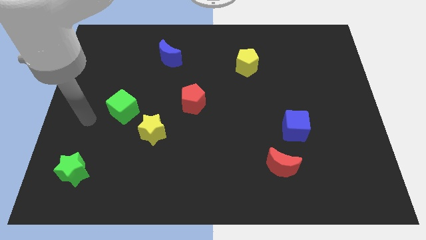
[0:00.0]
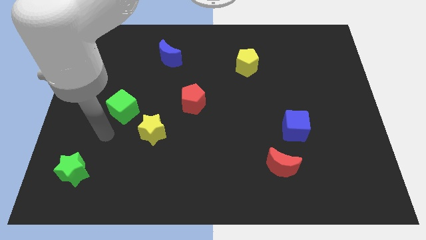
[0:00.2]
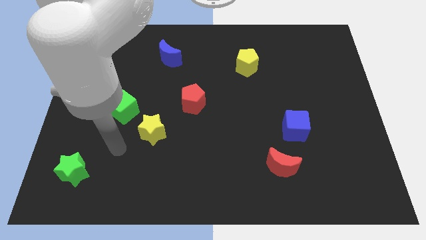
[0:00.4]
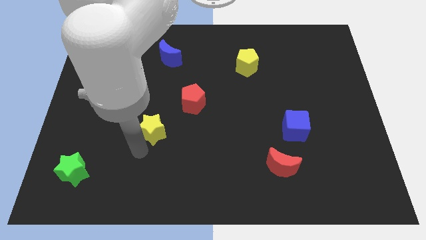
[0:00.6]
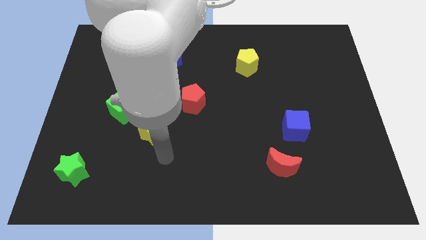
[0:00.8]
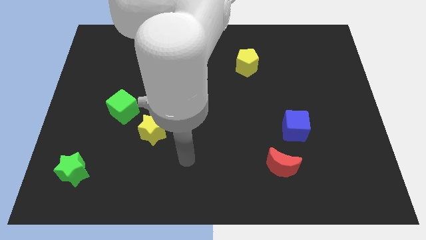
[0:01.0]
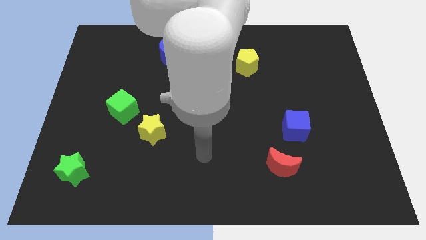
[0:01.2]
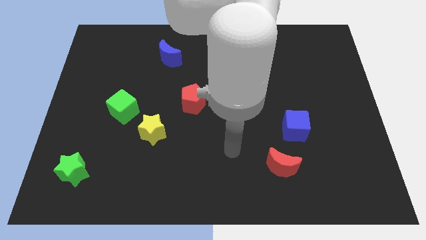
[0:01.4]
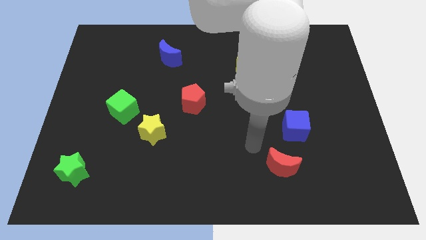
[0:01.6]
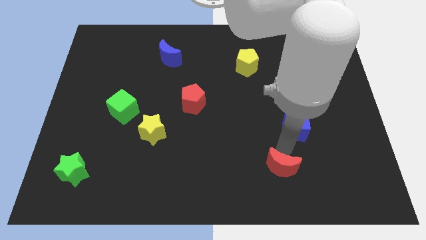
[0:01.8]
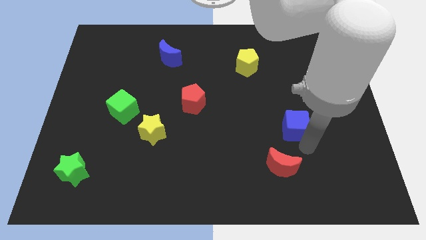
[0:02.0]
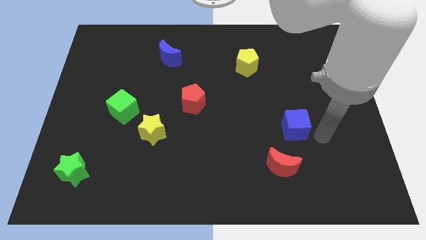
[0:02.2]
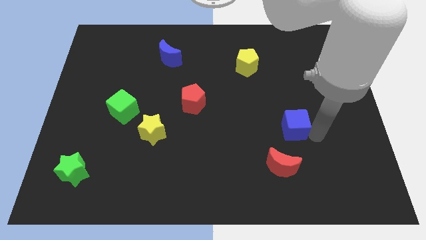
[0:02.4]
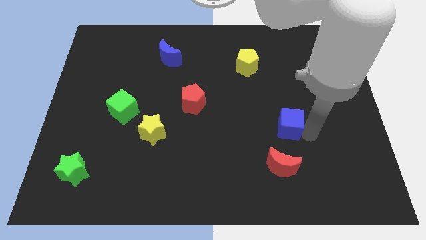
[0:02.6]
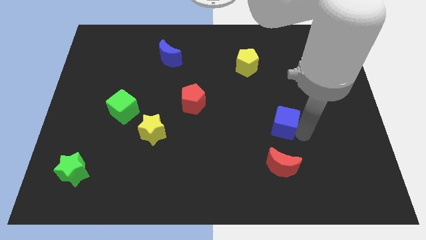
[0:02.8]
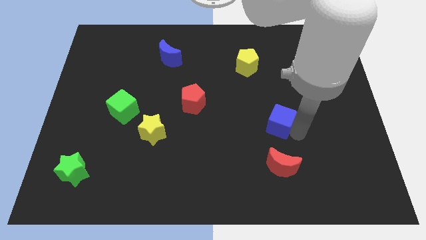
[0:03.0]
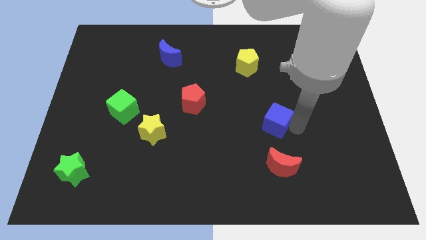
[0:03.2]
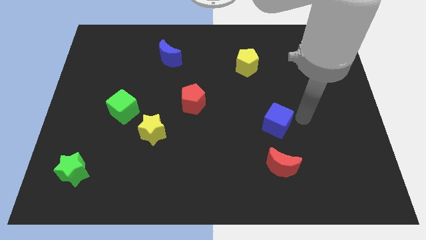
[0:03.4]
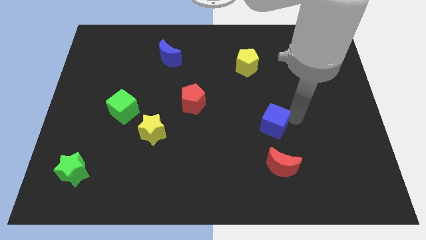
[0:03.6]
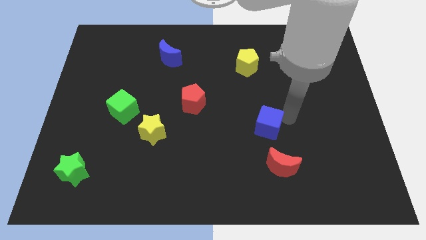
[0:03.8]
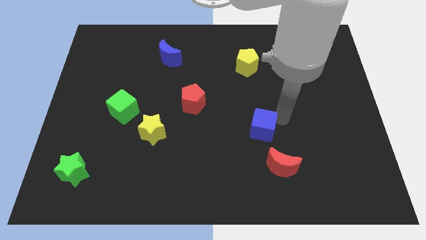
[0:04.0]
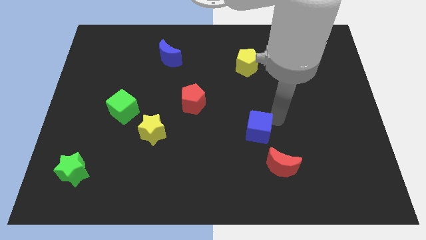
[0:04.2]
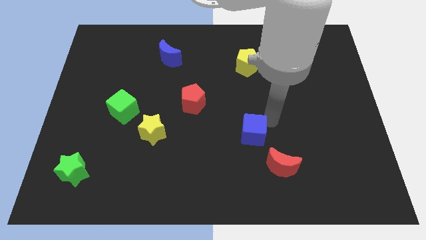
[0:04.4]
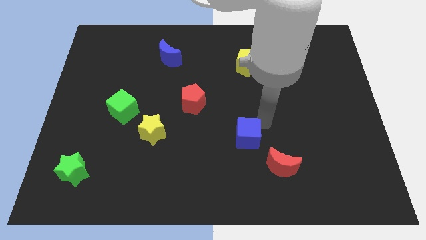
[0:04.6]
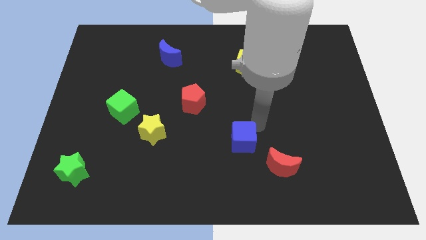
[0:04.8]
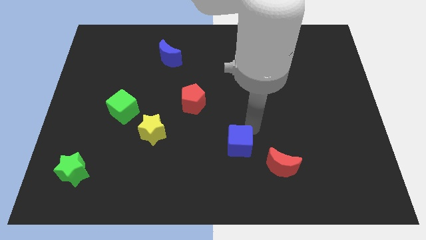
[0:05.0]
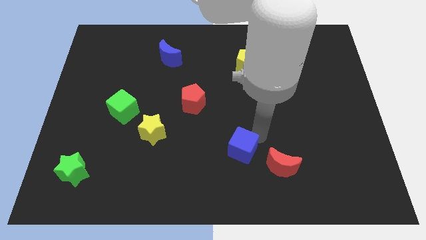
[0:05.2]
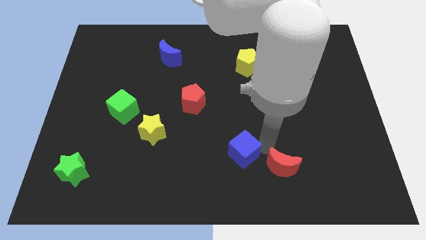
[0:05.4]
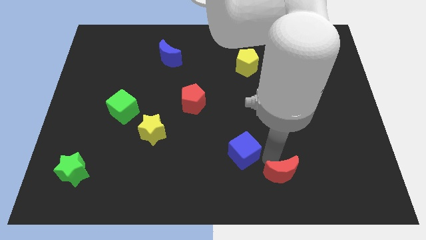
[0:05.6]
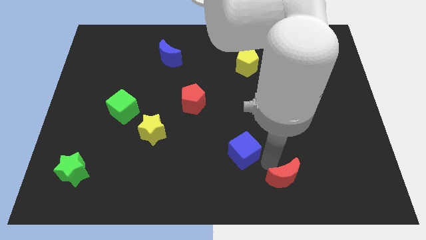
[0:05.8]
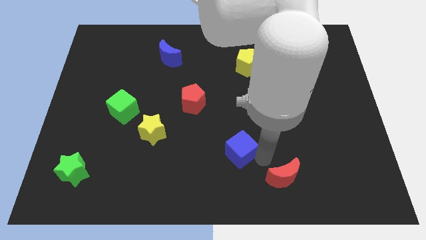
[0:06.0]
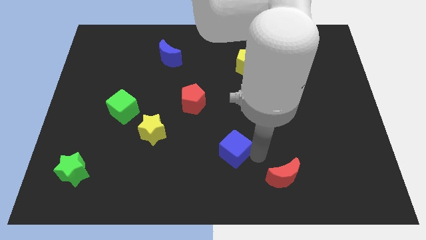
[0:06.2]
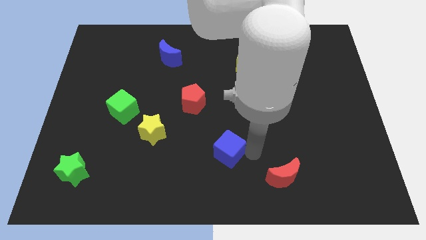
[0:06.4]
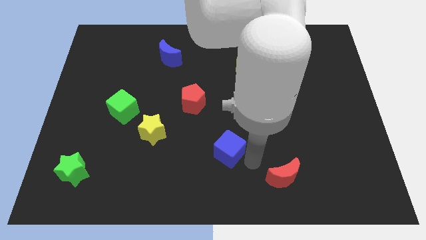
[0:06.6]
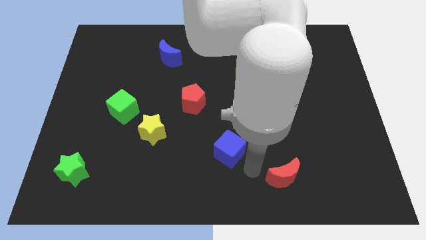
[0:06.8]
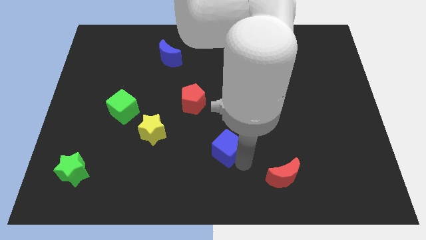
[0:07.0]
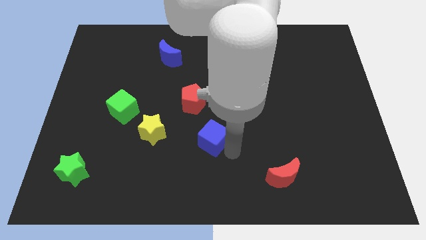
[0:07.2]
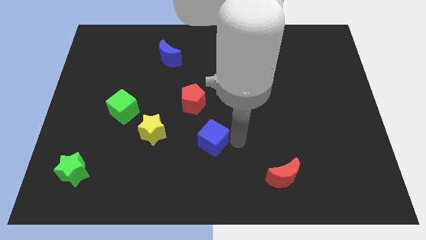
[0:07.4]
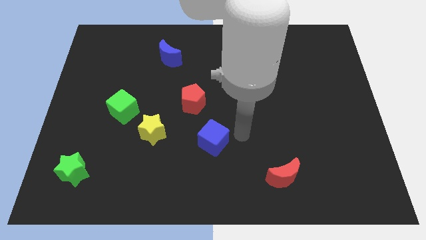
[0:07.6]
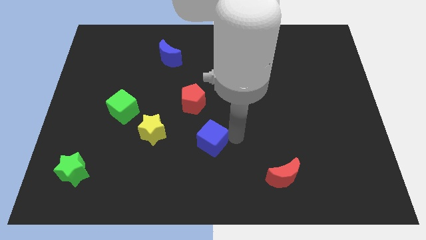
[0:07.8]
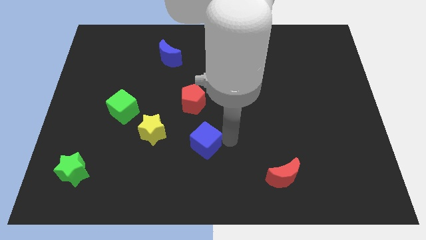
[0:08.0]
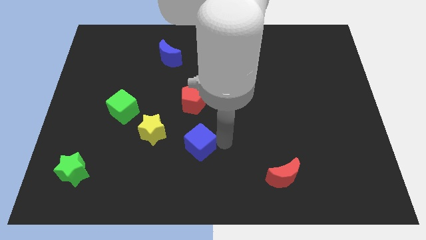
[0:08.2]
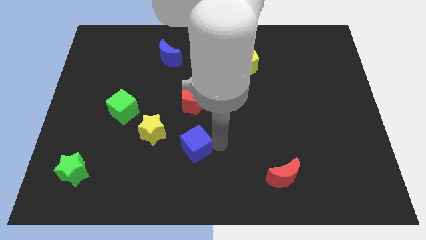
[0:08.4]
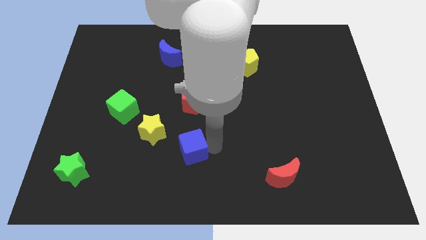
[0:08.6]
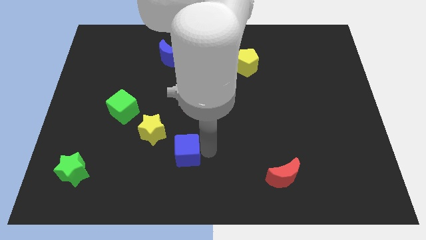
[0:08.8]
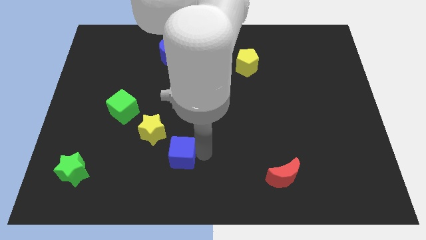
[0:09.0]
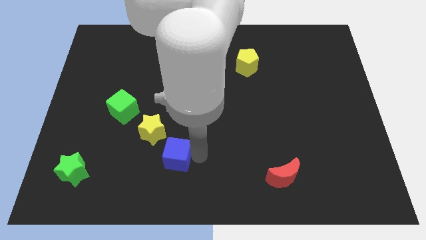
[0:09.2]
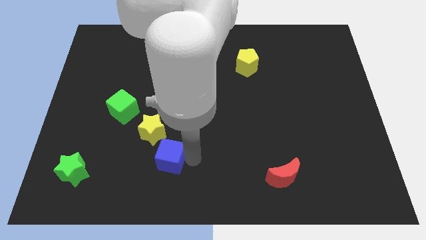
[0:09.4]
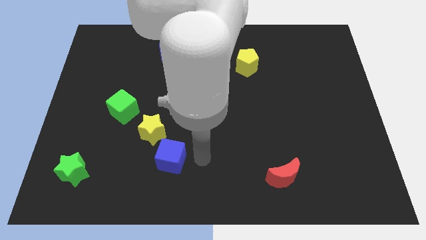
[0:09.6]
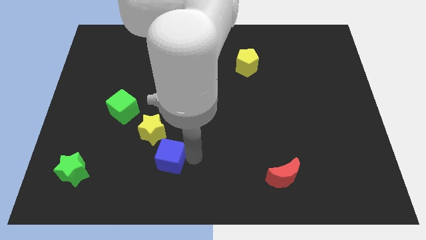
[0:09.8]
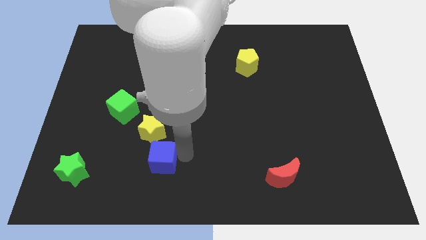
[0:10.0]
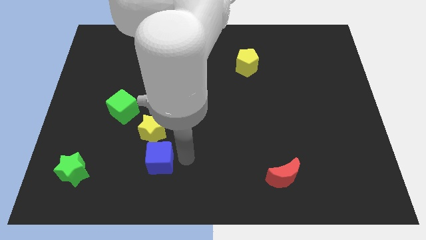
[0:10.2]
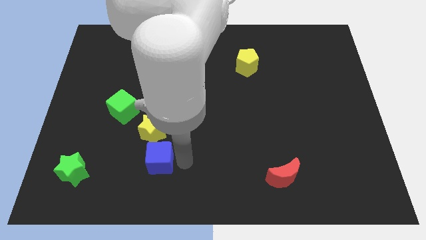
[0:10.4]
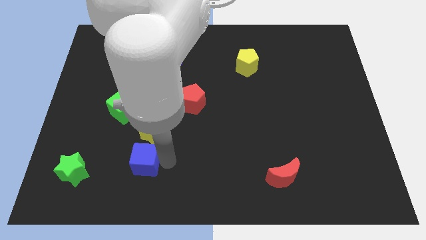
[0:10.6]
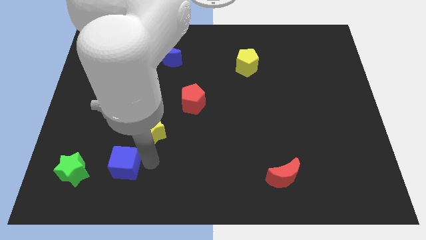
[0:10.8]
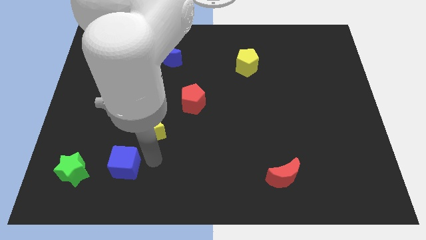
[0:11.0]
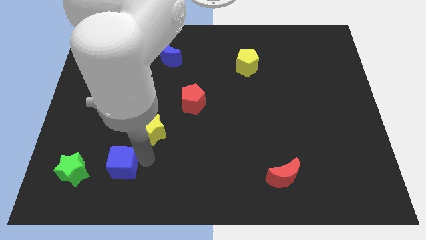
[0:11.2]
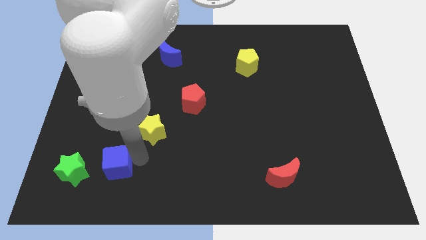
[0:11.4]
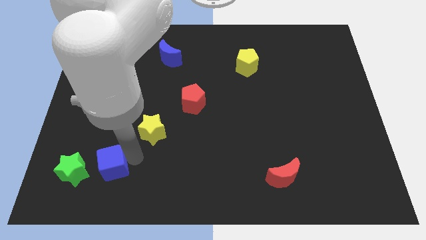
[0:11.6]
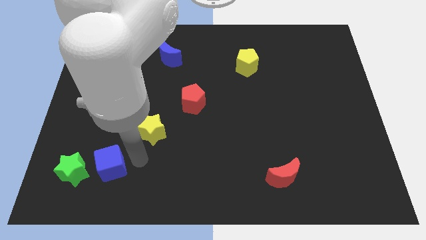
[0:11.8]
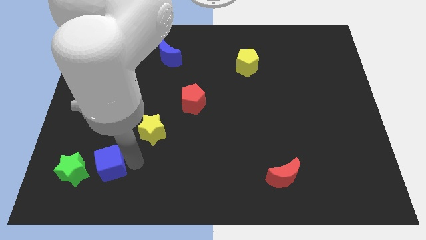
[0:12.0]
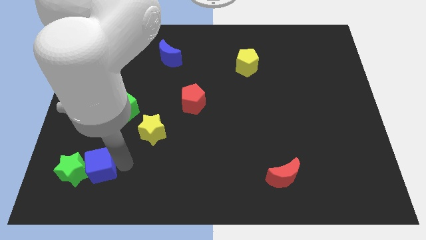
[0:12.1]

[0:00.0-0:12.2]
move the blue cube next to the green star

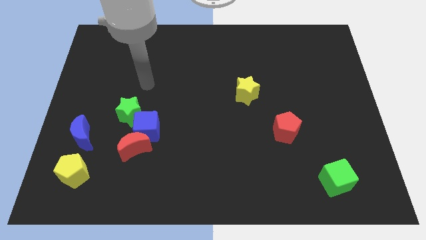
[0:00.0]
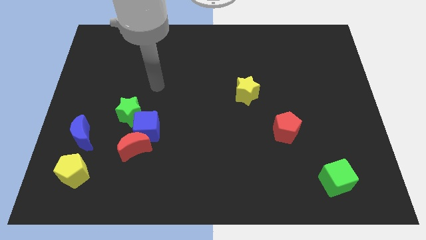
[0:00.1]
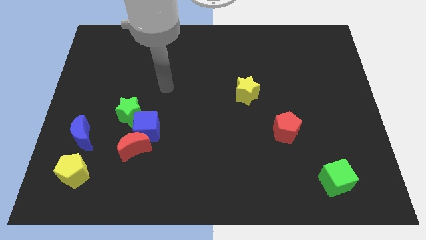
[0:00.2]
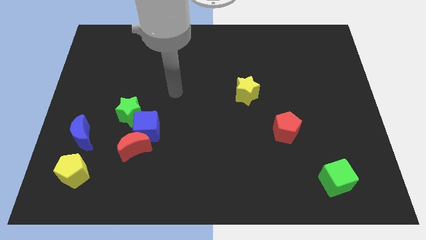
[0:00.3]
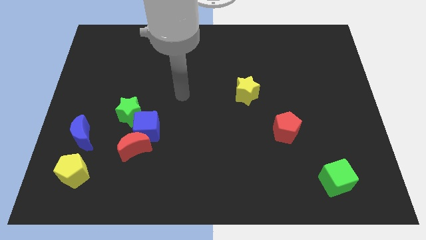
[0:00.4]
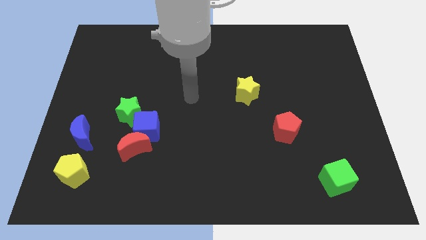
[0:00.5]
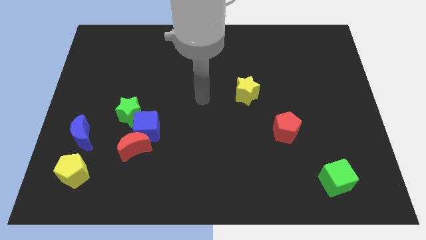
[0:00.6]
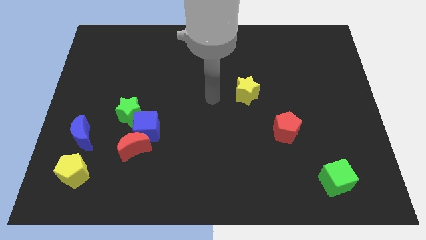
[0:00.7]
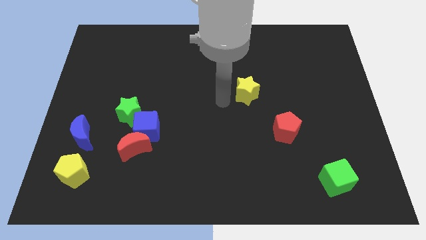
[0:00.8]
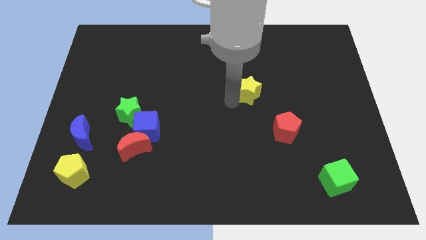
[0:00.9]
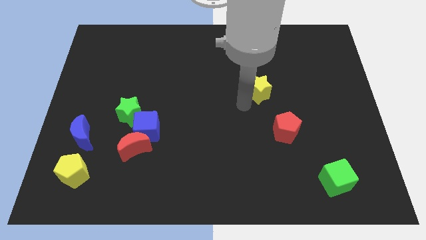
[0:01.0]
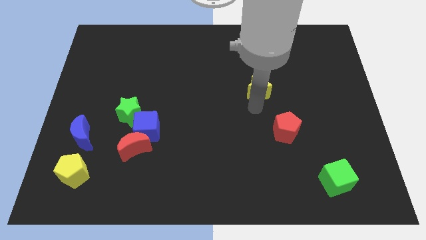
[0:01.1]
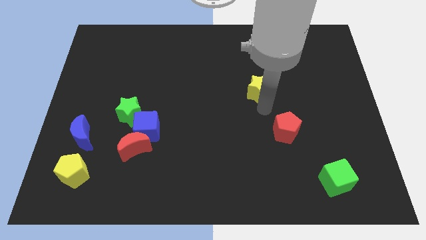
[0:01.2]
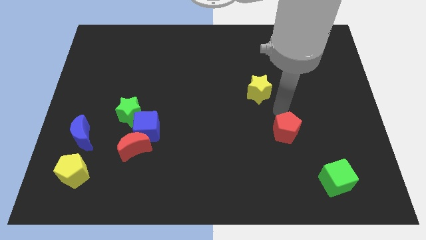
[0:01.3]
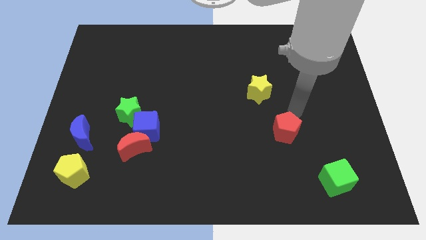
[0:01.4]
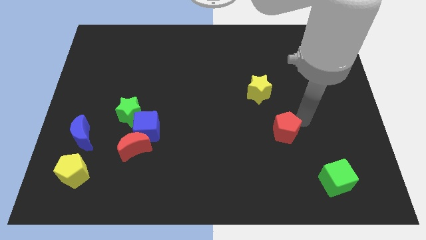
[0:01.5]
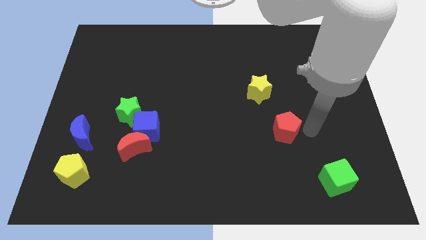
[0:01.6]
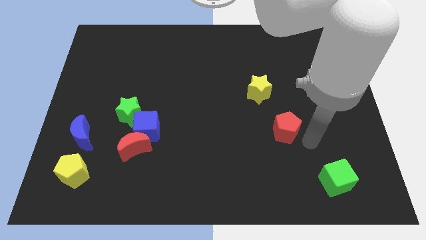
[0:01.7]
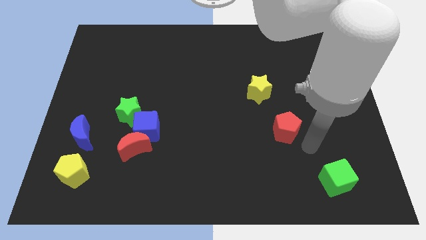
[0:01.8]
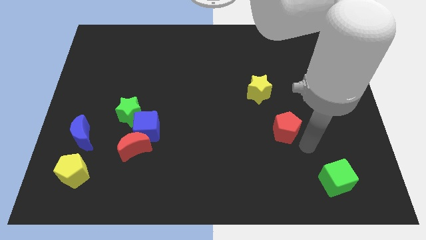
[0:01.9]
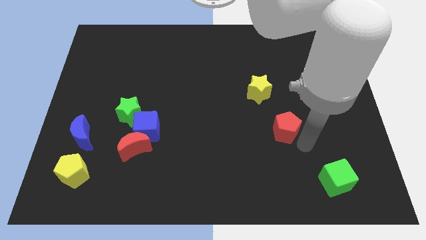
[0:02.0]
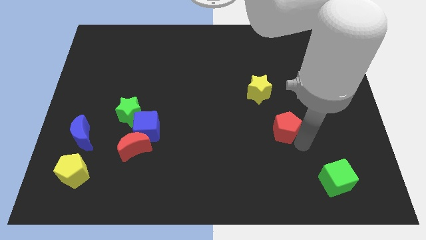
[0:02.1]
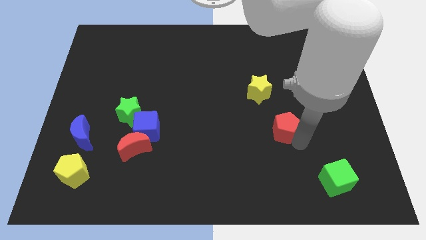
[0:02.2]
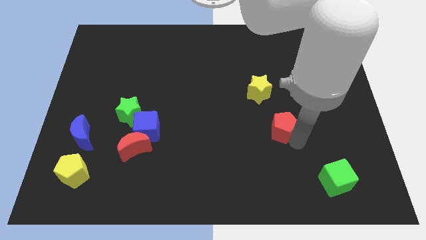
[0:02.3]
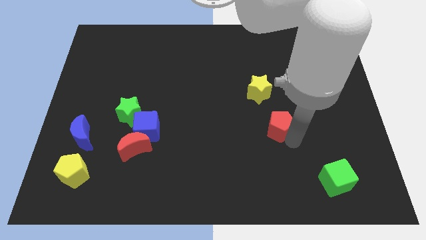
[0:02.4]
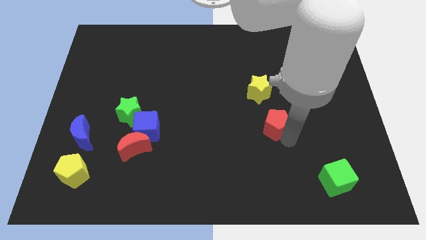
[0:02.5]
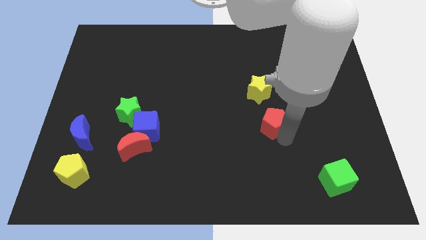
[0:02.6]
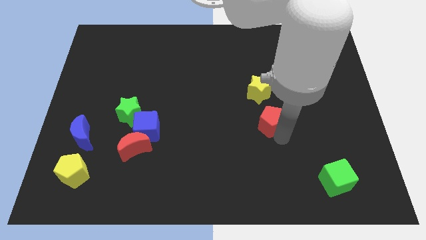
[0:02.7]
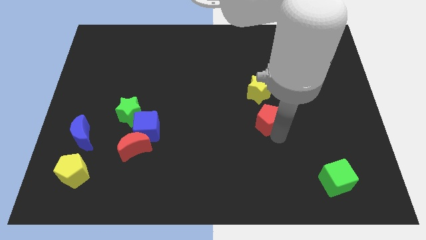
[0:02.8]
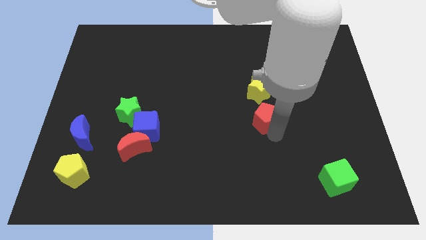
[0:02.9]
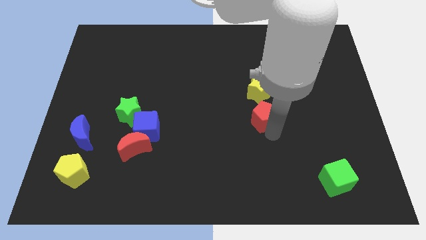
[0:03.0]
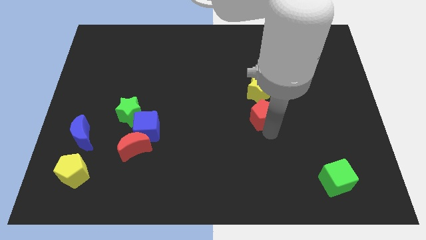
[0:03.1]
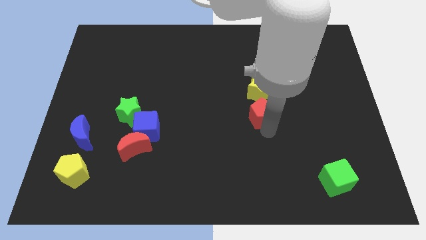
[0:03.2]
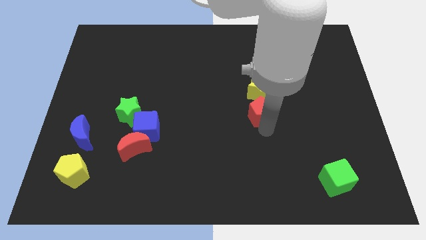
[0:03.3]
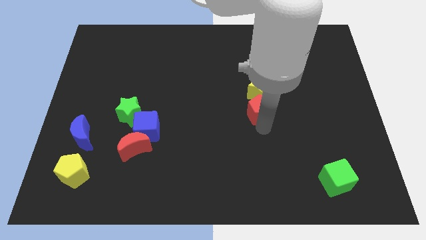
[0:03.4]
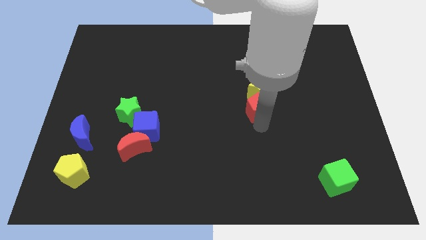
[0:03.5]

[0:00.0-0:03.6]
put the red pentagon towards the yellow star
